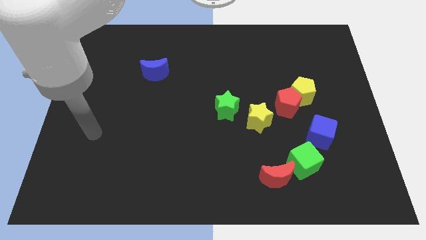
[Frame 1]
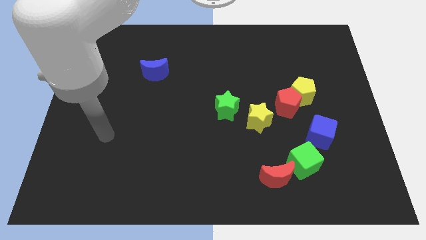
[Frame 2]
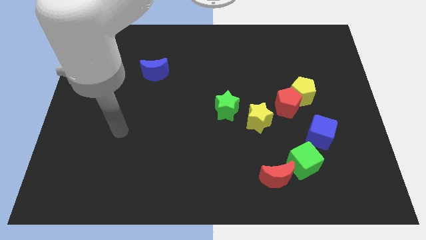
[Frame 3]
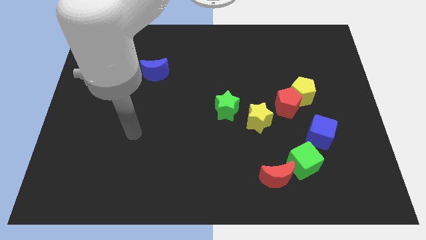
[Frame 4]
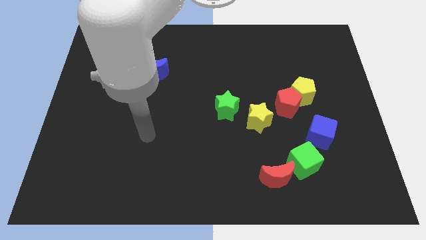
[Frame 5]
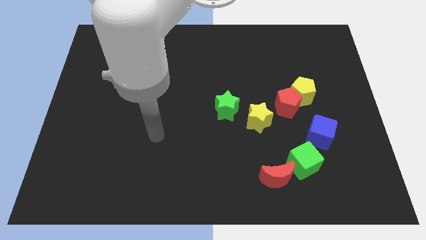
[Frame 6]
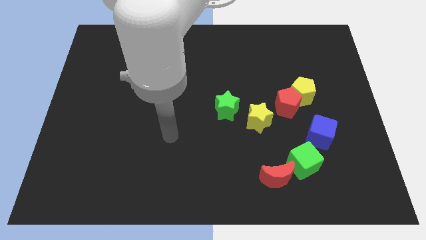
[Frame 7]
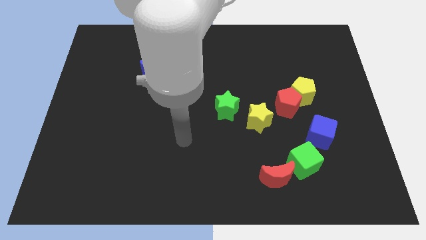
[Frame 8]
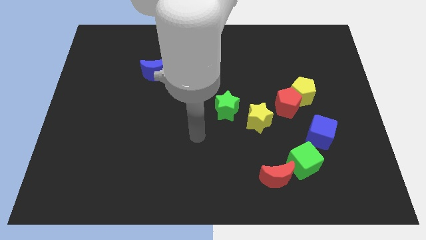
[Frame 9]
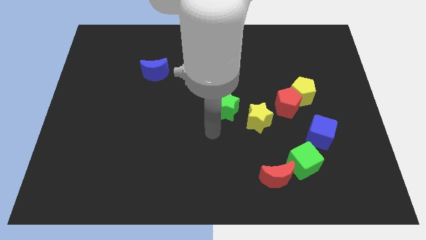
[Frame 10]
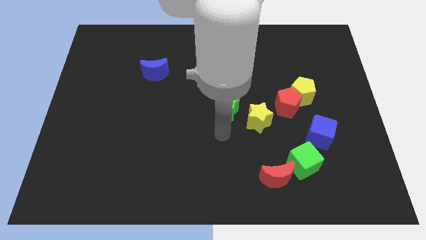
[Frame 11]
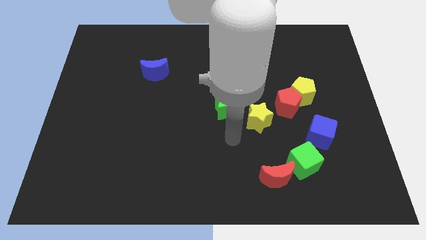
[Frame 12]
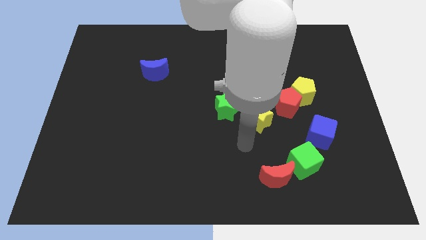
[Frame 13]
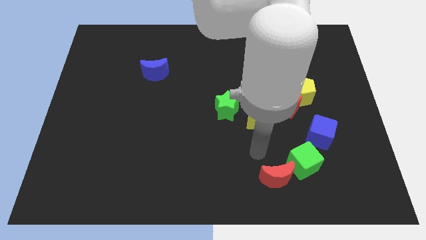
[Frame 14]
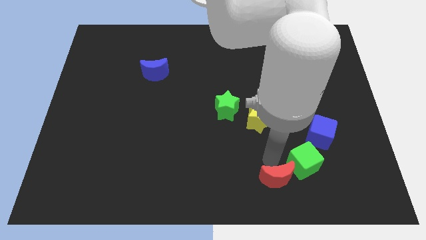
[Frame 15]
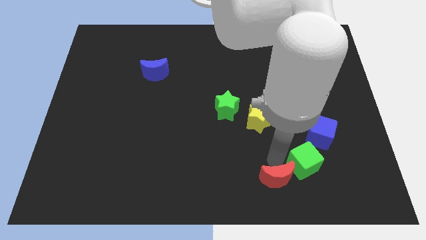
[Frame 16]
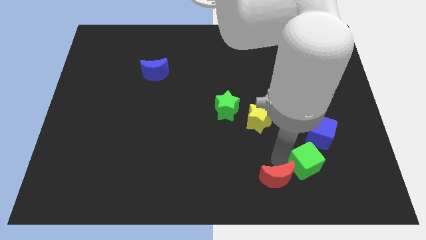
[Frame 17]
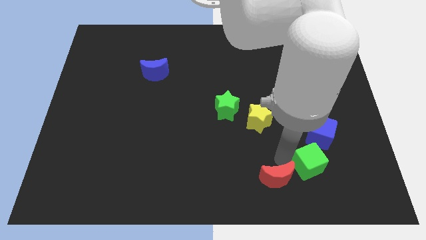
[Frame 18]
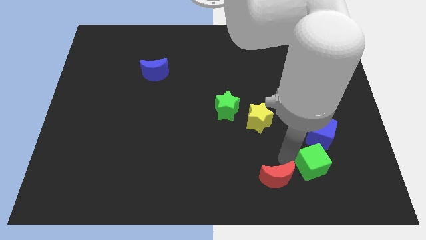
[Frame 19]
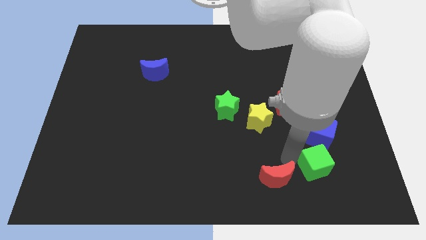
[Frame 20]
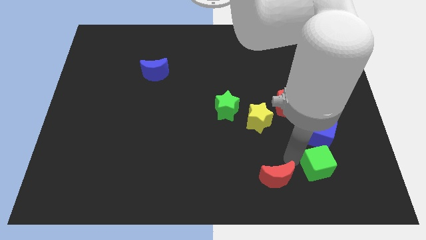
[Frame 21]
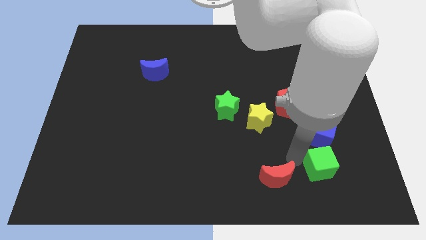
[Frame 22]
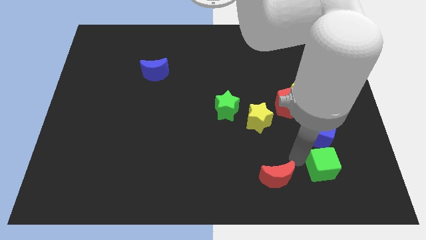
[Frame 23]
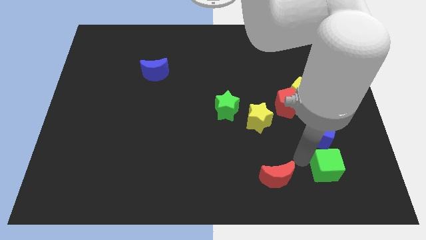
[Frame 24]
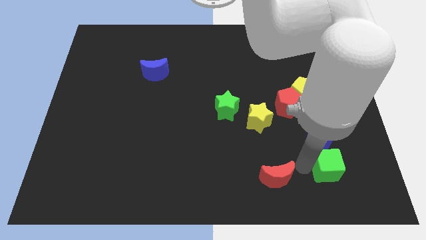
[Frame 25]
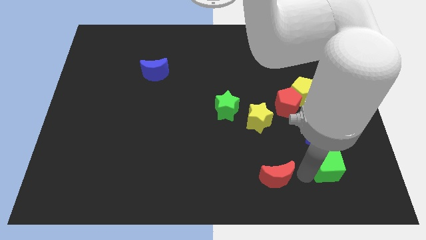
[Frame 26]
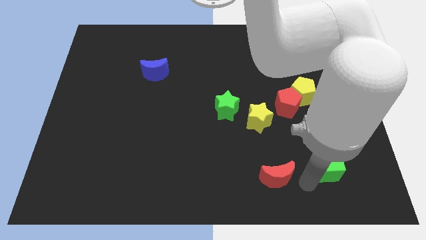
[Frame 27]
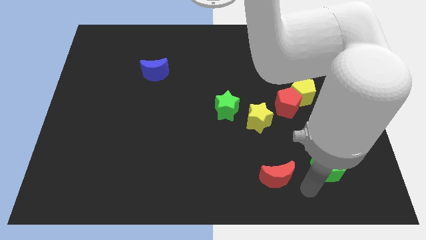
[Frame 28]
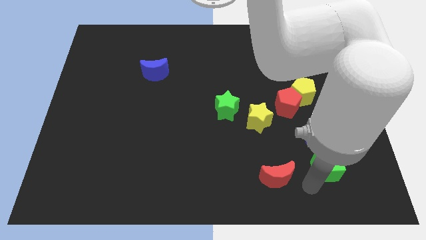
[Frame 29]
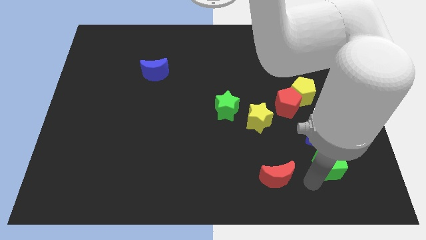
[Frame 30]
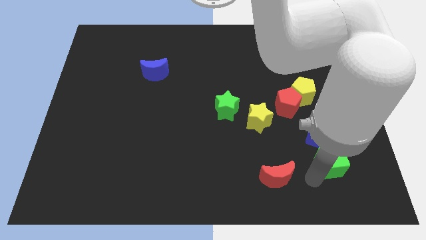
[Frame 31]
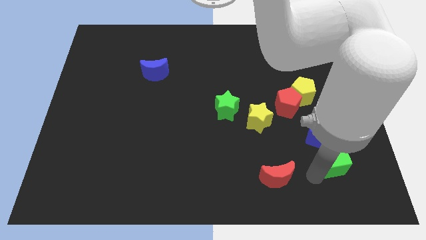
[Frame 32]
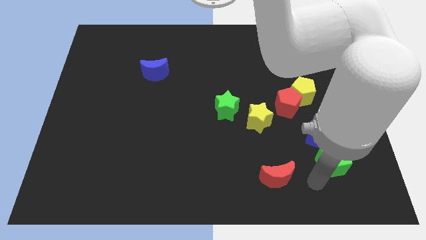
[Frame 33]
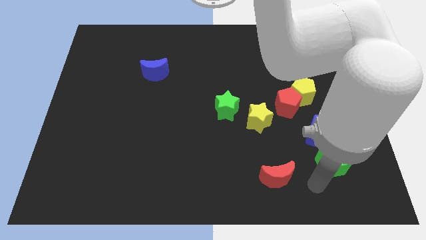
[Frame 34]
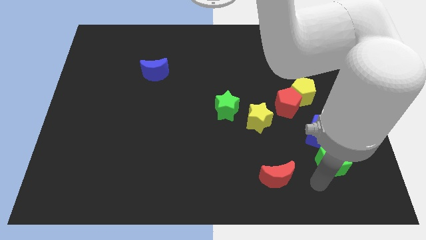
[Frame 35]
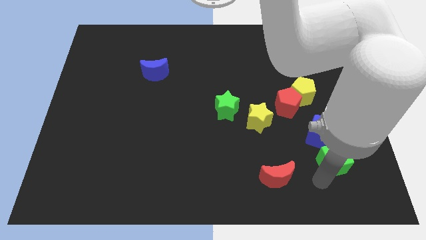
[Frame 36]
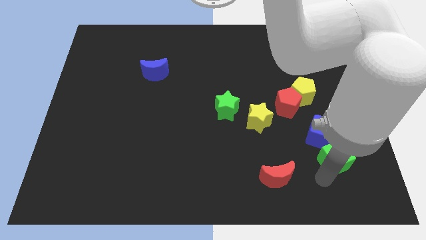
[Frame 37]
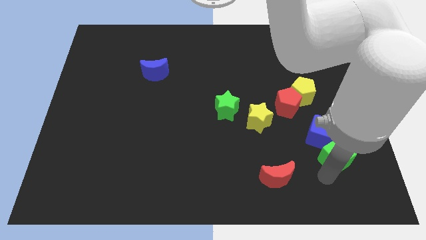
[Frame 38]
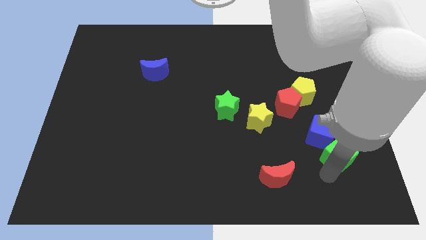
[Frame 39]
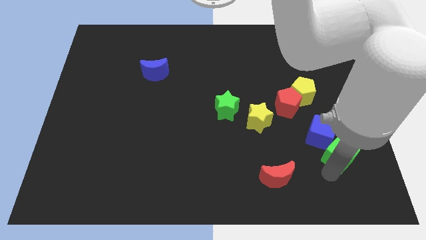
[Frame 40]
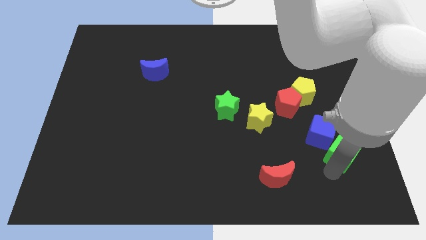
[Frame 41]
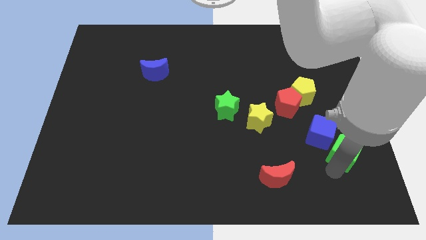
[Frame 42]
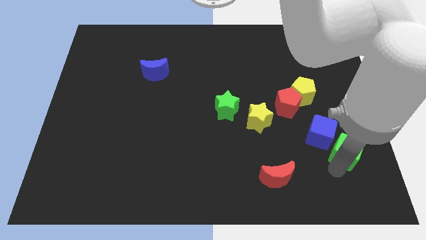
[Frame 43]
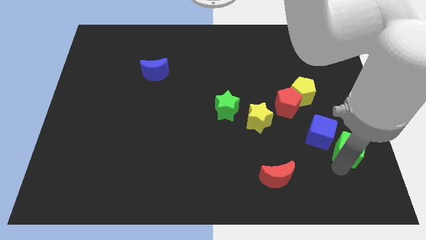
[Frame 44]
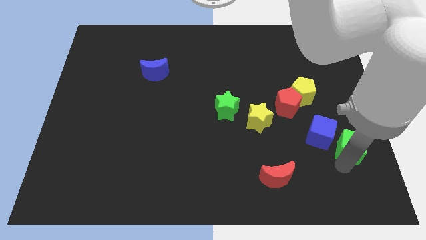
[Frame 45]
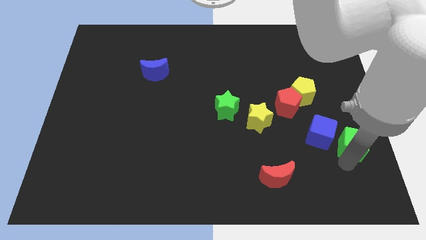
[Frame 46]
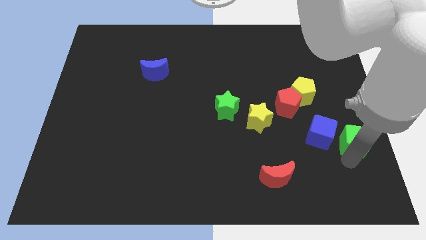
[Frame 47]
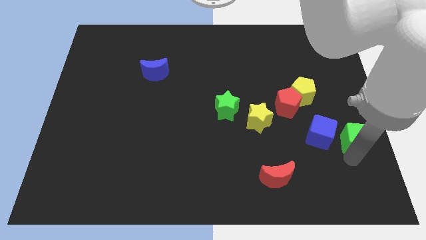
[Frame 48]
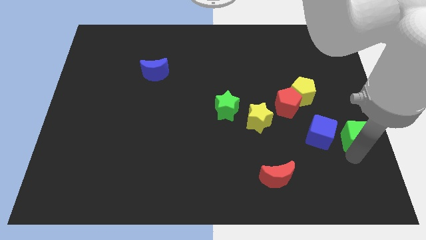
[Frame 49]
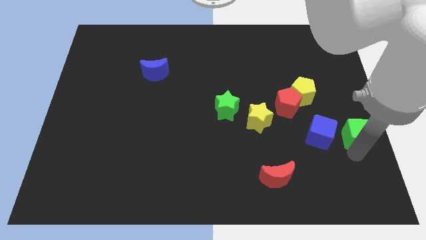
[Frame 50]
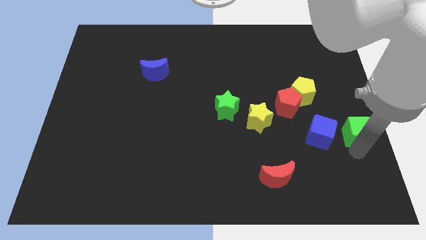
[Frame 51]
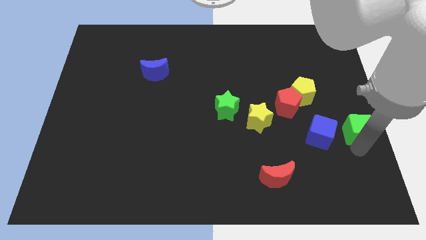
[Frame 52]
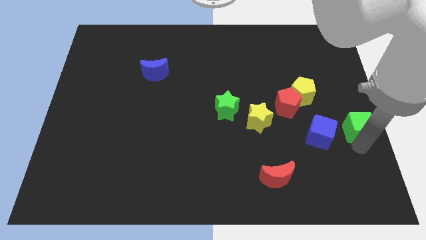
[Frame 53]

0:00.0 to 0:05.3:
put the green cube diagonally up and to the right of the blue cube
